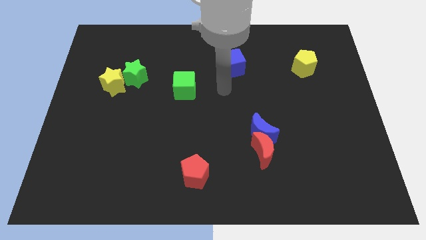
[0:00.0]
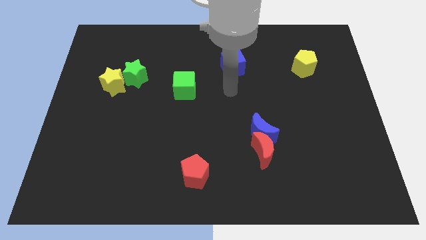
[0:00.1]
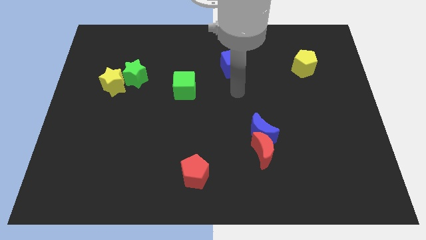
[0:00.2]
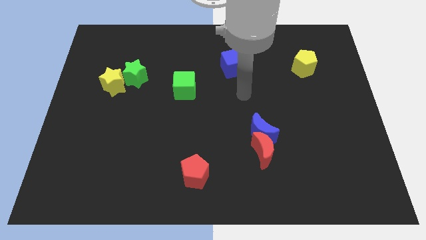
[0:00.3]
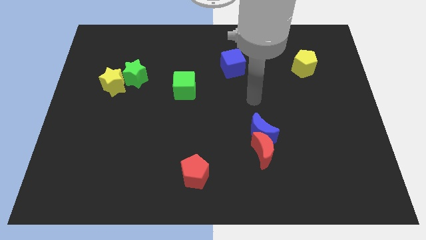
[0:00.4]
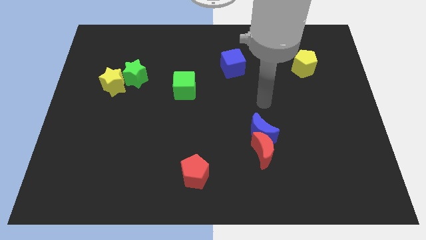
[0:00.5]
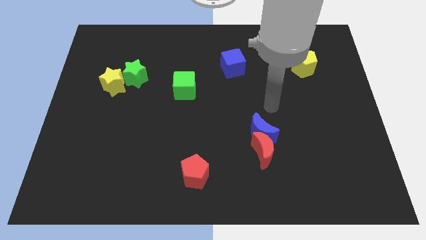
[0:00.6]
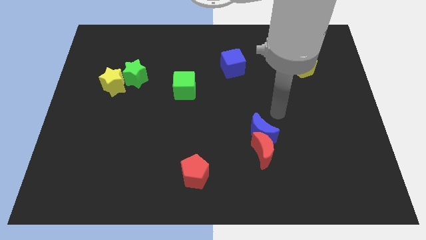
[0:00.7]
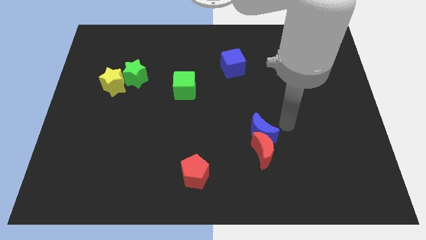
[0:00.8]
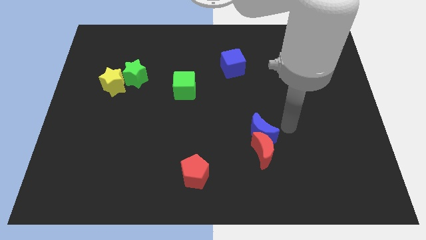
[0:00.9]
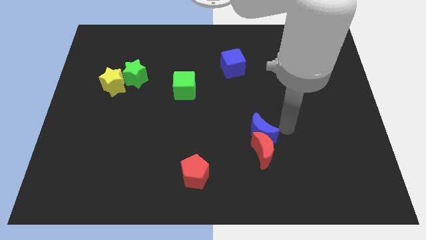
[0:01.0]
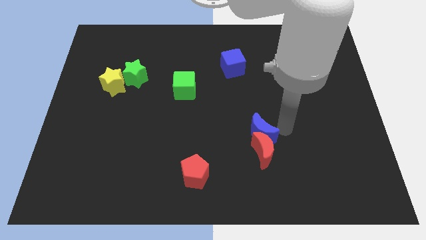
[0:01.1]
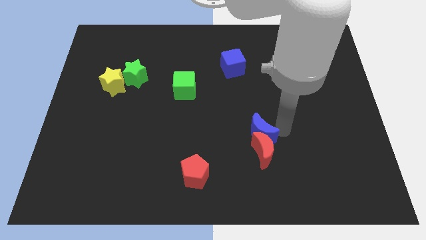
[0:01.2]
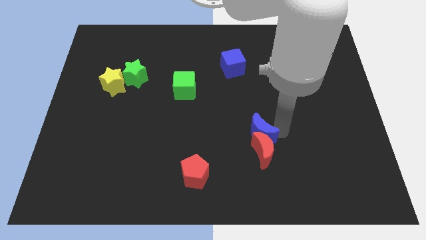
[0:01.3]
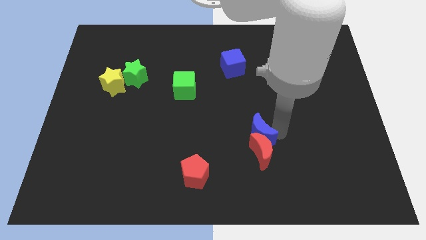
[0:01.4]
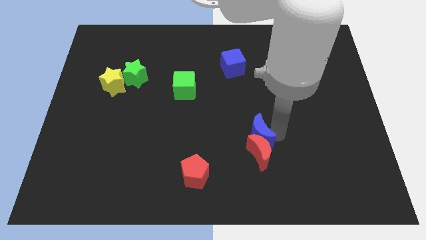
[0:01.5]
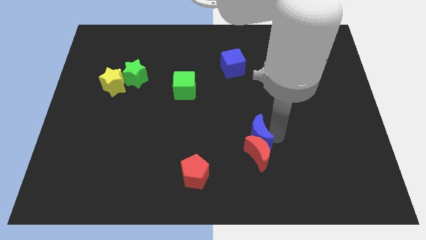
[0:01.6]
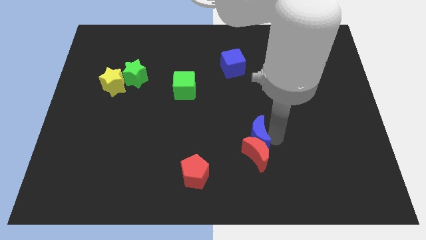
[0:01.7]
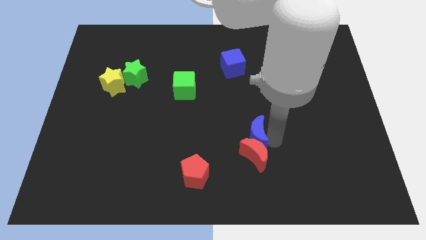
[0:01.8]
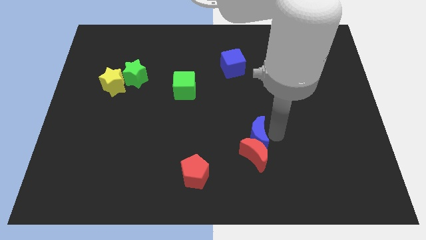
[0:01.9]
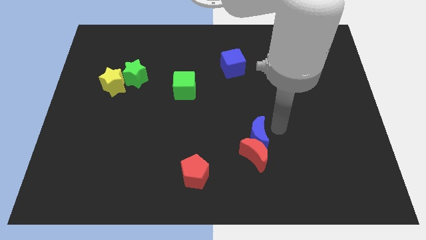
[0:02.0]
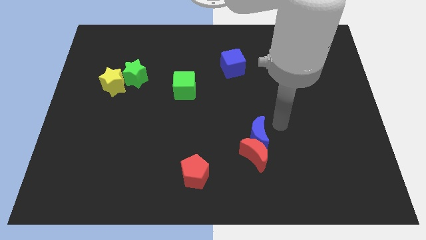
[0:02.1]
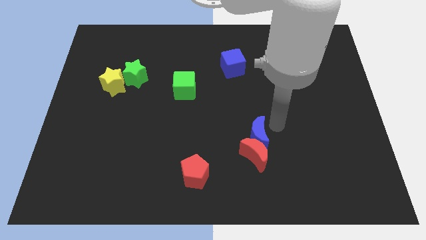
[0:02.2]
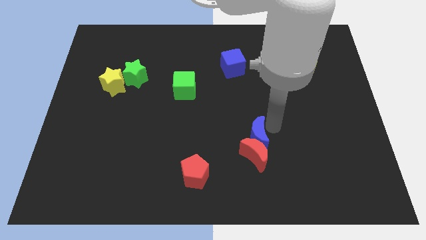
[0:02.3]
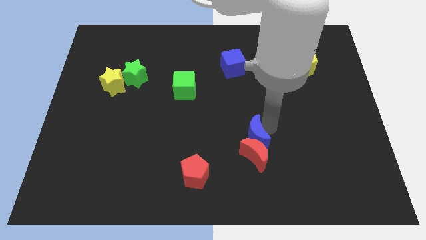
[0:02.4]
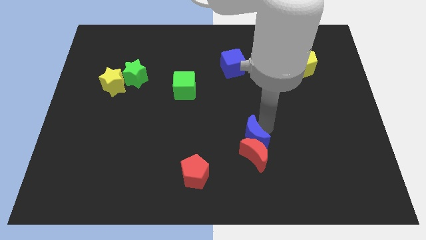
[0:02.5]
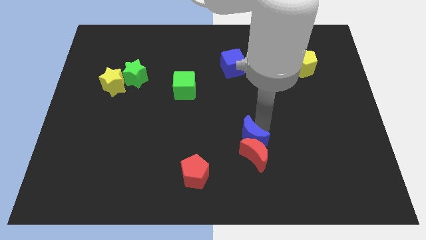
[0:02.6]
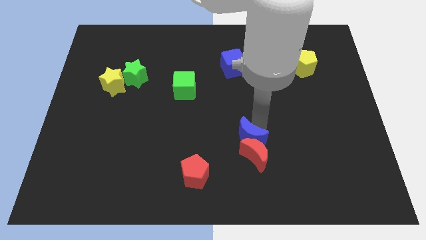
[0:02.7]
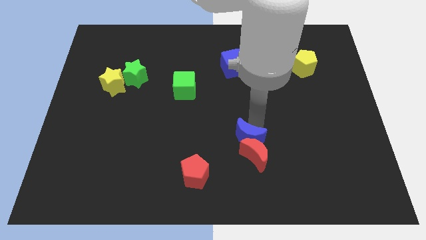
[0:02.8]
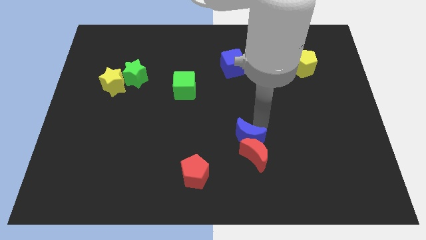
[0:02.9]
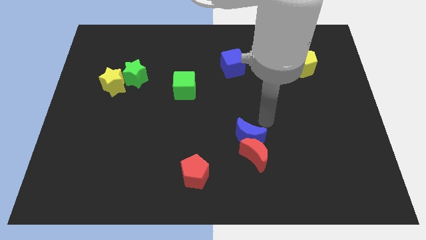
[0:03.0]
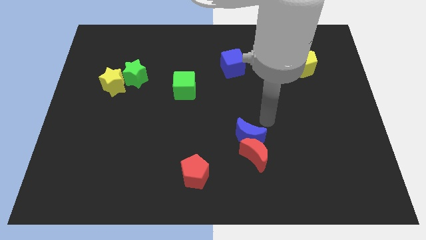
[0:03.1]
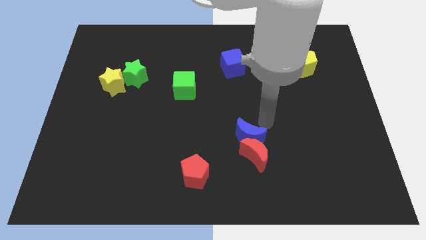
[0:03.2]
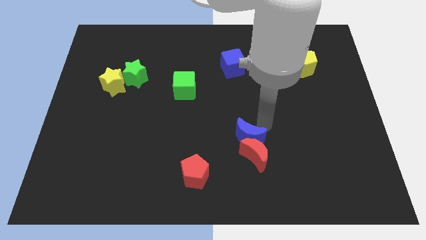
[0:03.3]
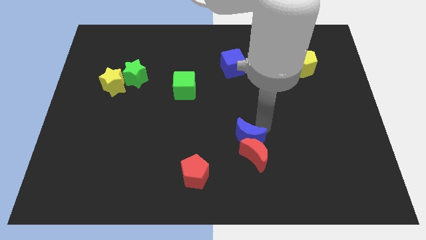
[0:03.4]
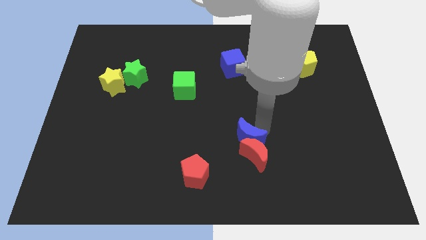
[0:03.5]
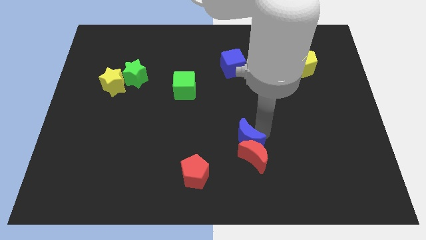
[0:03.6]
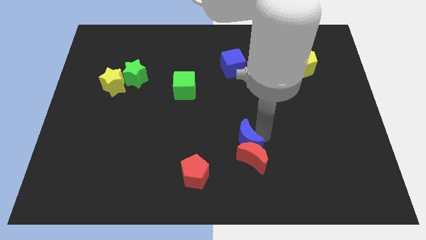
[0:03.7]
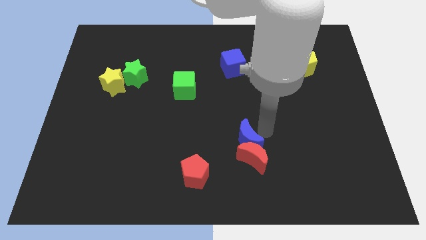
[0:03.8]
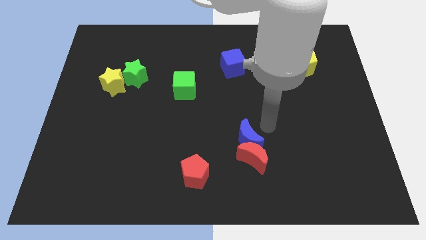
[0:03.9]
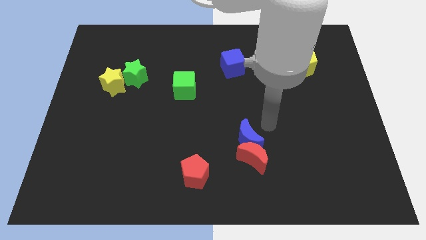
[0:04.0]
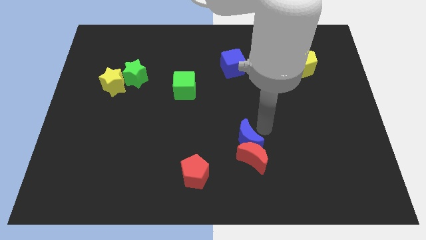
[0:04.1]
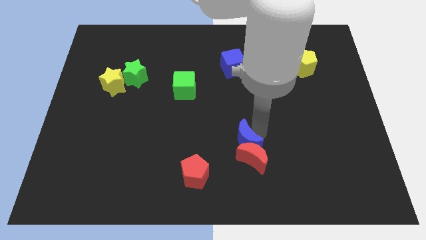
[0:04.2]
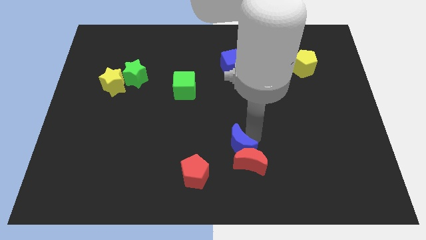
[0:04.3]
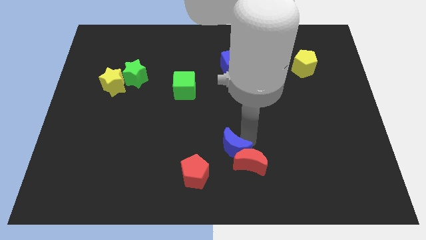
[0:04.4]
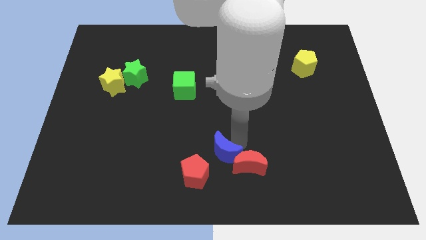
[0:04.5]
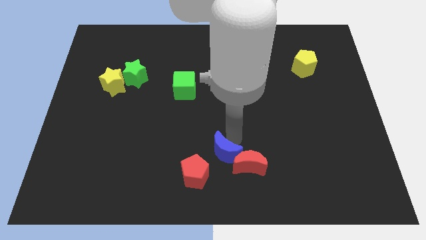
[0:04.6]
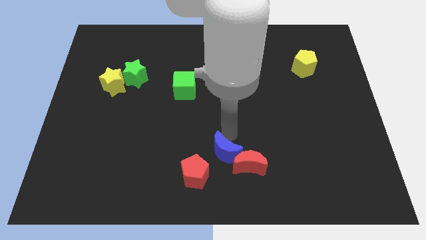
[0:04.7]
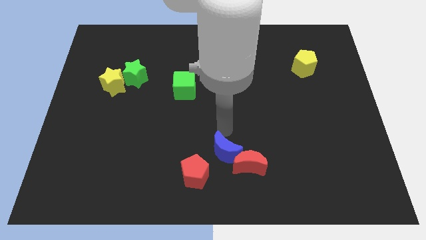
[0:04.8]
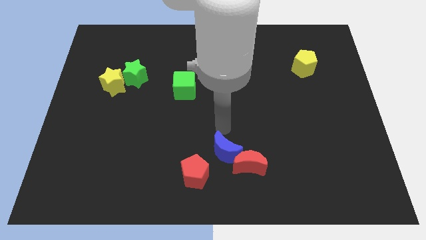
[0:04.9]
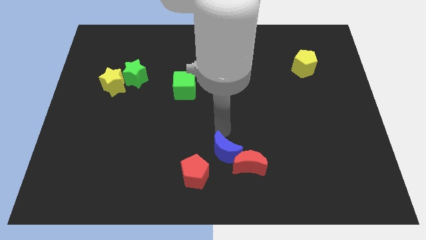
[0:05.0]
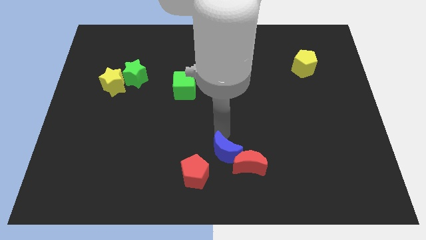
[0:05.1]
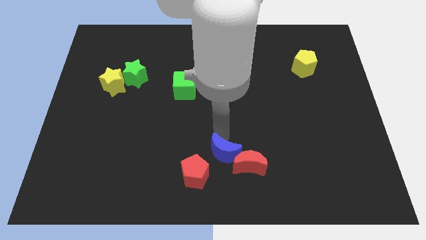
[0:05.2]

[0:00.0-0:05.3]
put the blue moon to the bottom

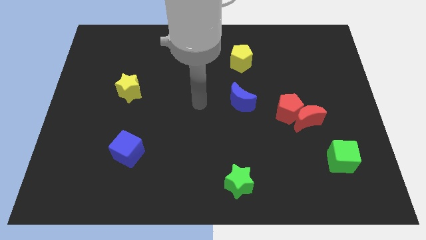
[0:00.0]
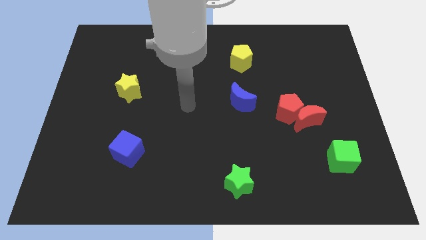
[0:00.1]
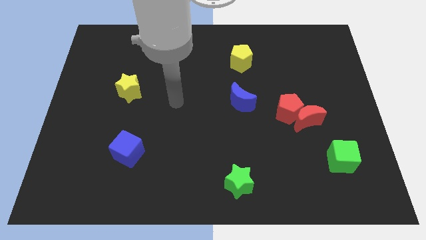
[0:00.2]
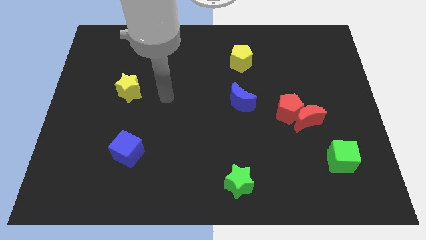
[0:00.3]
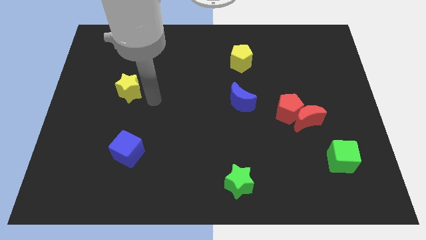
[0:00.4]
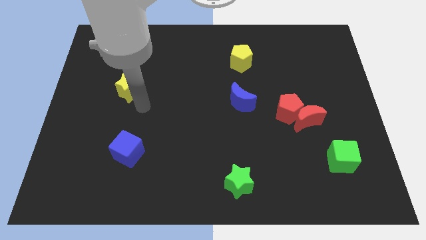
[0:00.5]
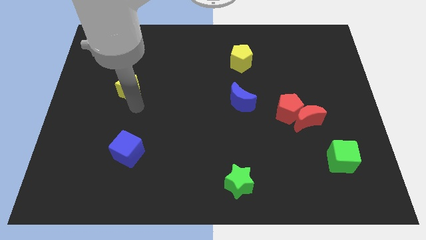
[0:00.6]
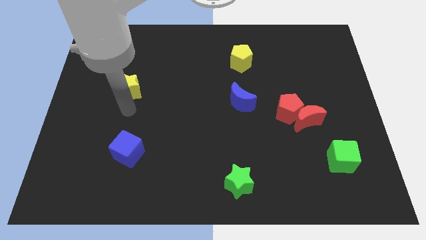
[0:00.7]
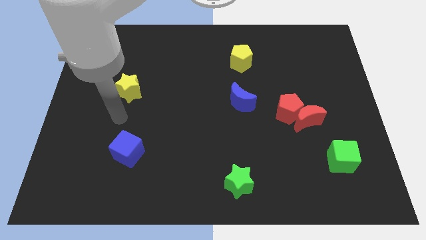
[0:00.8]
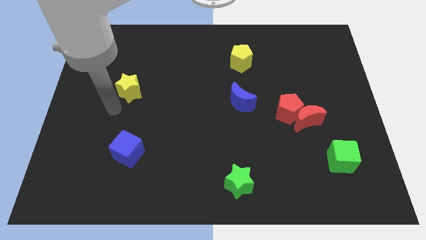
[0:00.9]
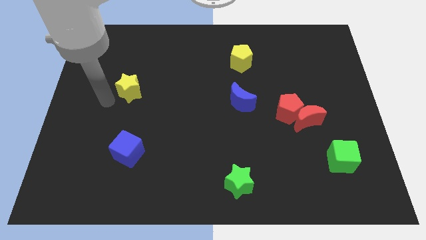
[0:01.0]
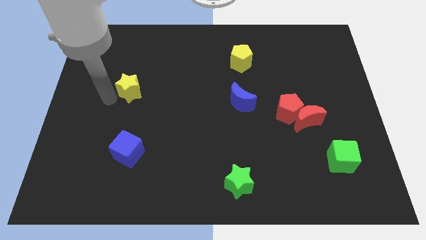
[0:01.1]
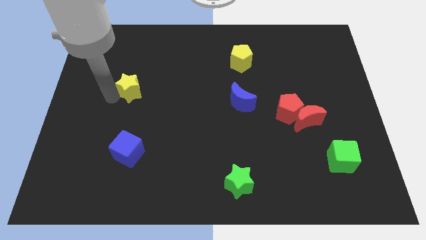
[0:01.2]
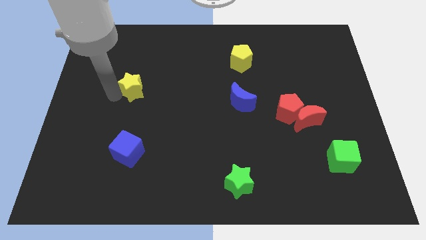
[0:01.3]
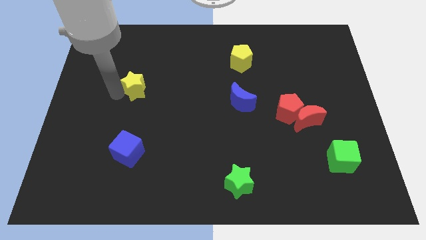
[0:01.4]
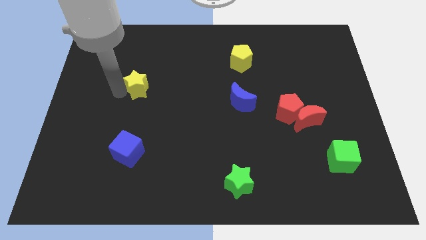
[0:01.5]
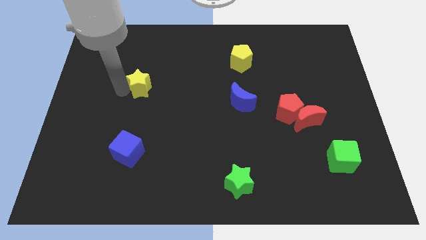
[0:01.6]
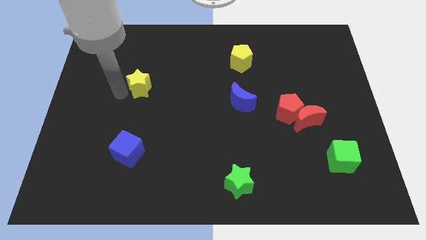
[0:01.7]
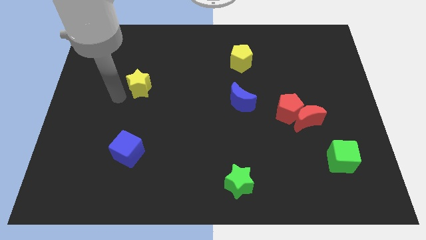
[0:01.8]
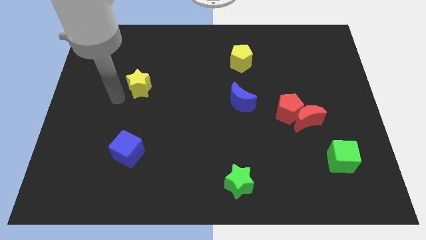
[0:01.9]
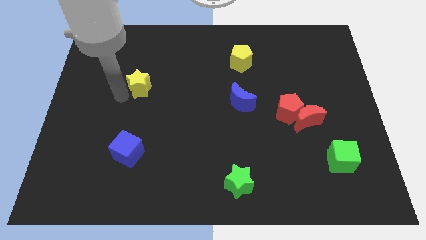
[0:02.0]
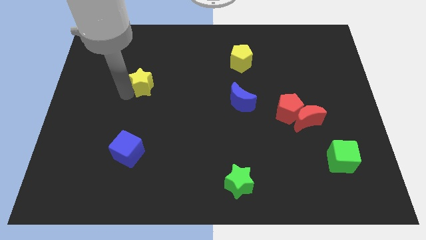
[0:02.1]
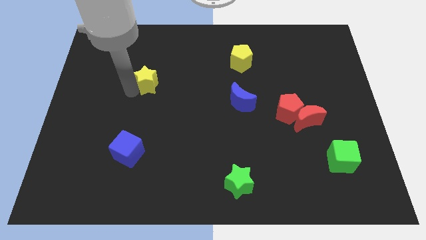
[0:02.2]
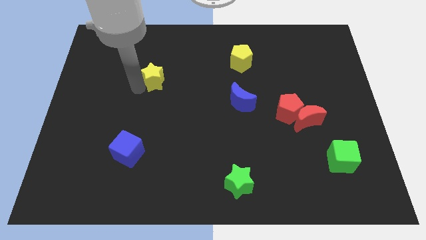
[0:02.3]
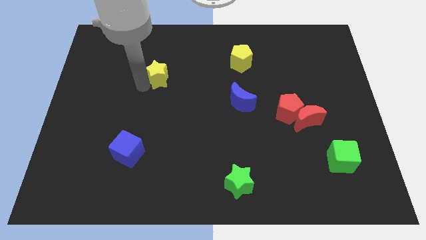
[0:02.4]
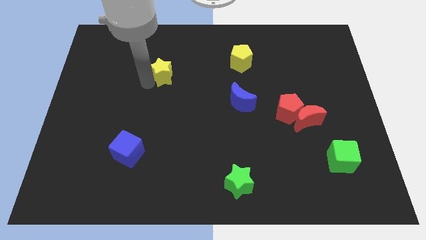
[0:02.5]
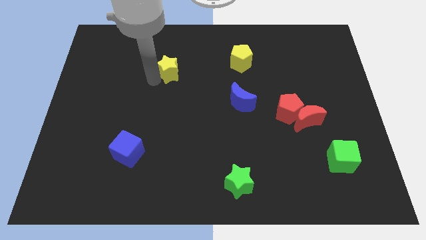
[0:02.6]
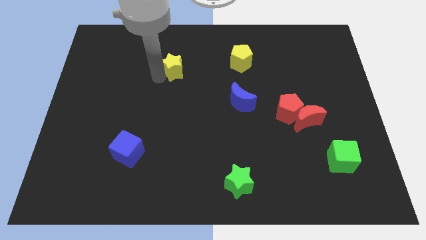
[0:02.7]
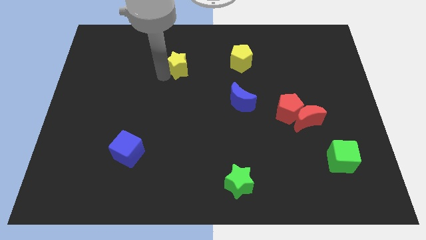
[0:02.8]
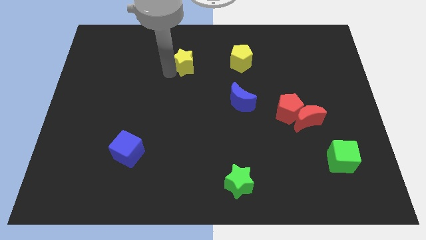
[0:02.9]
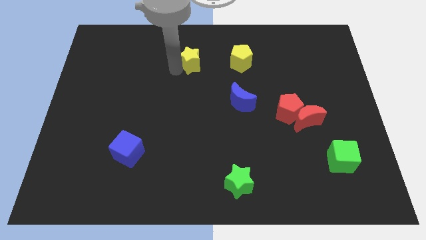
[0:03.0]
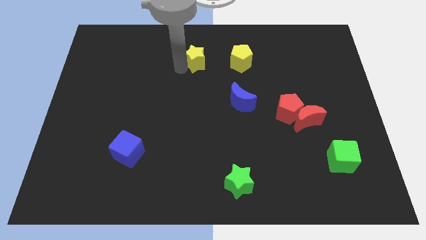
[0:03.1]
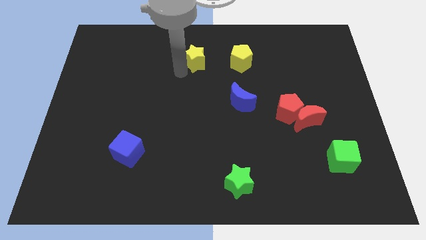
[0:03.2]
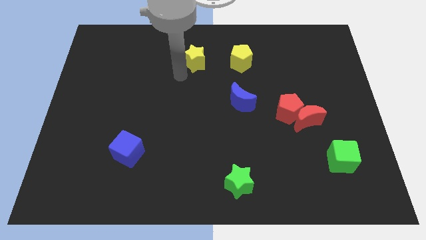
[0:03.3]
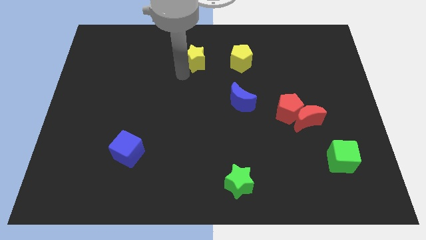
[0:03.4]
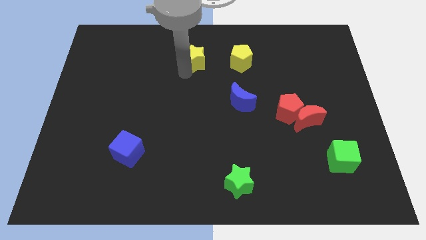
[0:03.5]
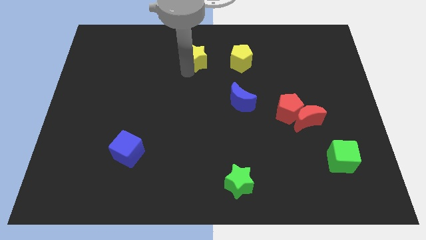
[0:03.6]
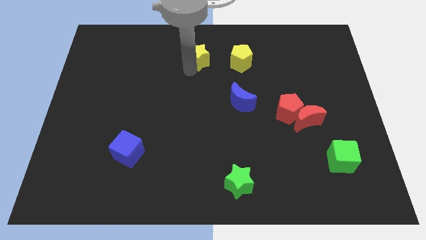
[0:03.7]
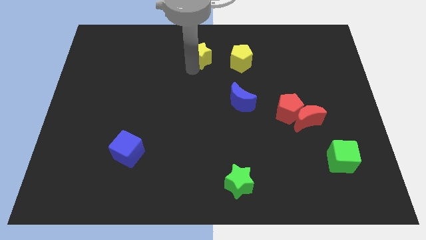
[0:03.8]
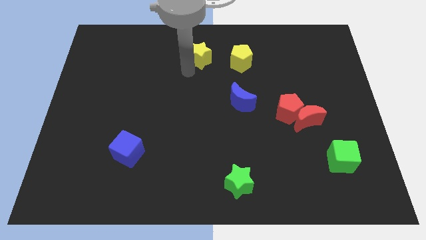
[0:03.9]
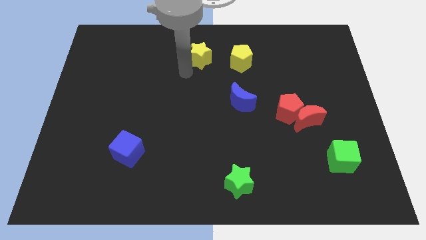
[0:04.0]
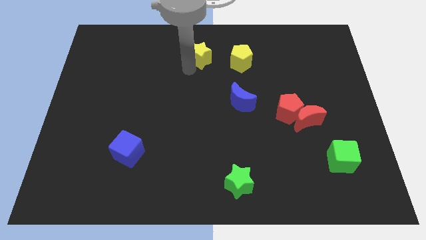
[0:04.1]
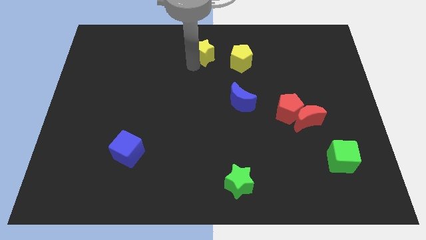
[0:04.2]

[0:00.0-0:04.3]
move the yellow star to the towards your base
